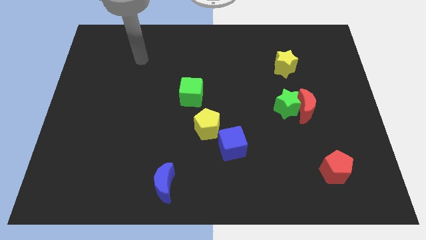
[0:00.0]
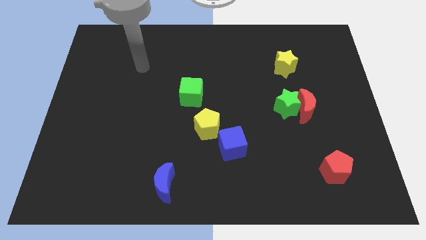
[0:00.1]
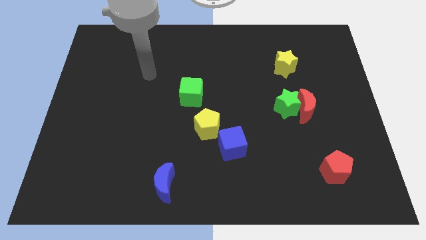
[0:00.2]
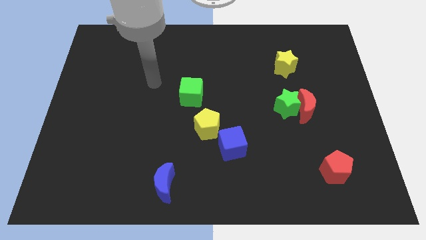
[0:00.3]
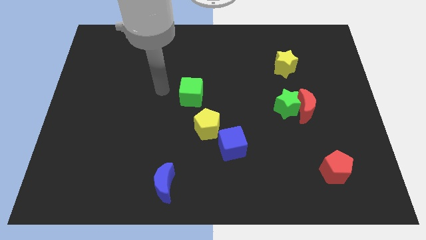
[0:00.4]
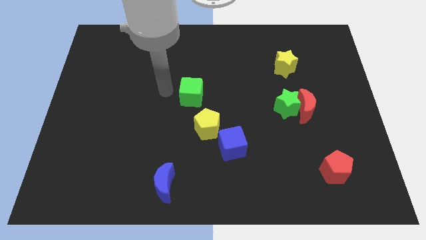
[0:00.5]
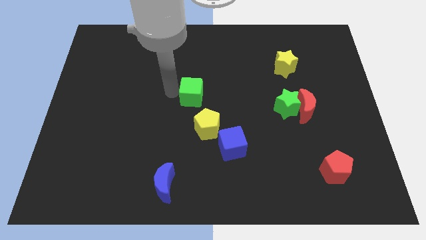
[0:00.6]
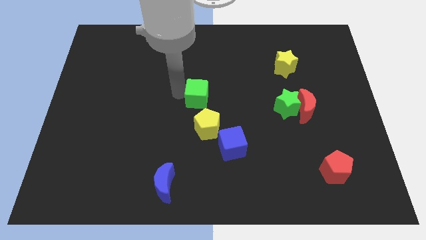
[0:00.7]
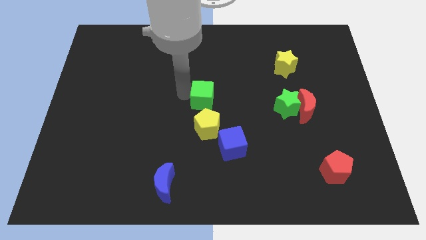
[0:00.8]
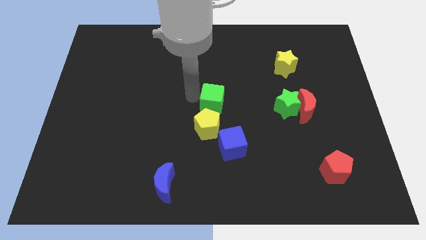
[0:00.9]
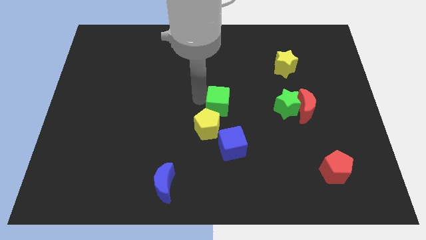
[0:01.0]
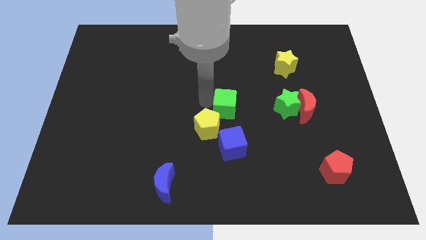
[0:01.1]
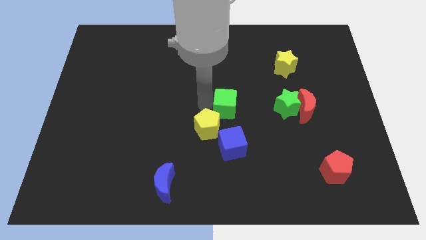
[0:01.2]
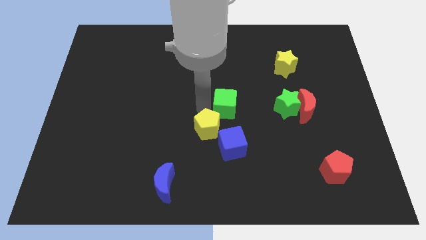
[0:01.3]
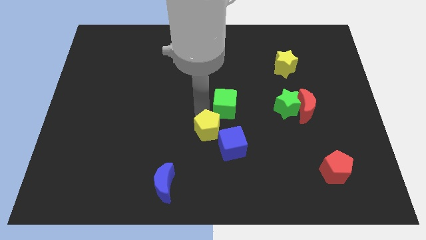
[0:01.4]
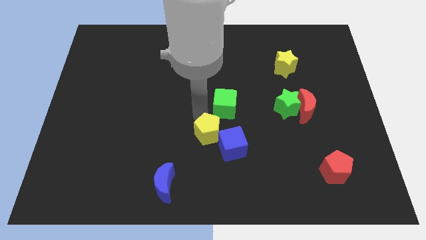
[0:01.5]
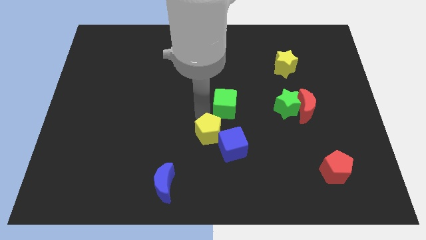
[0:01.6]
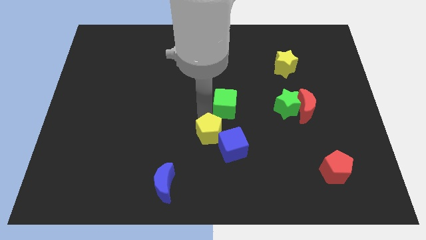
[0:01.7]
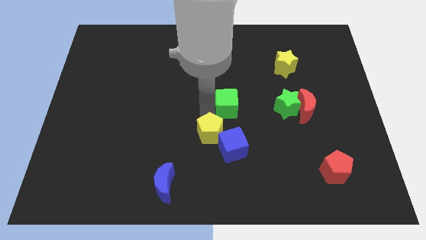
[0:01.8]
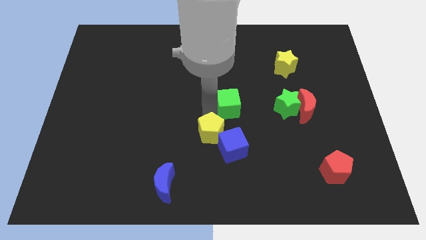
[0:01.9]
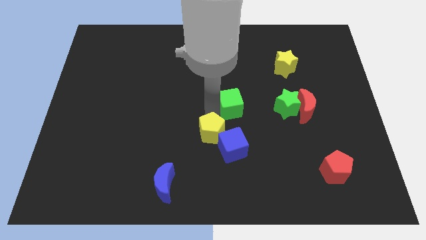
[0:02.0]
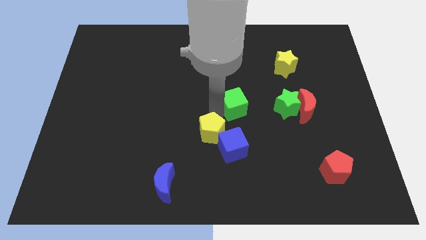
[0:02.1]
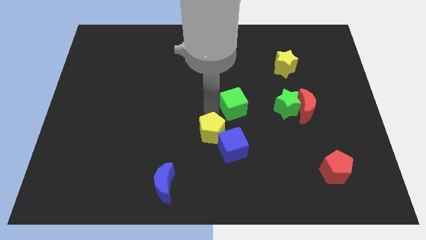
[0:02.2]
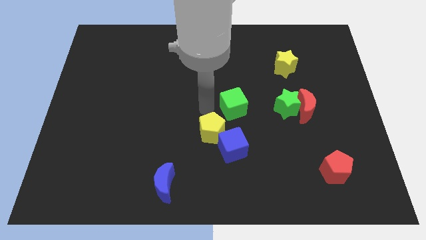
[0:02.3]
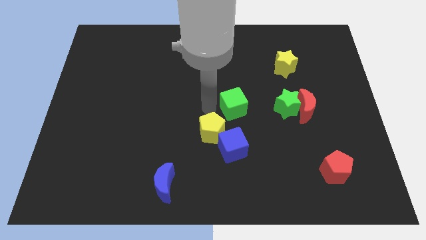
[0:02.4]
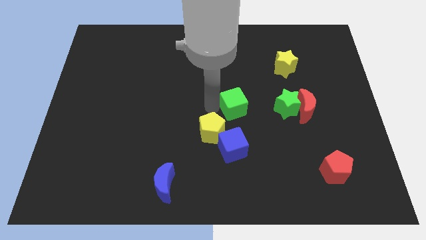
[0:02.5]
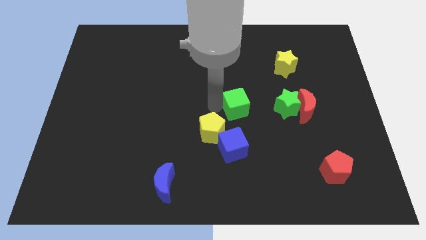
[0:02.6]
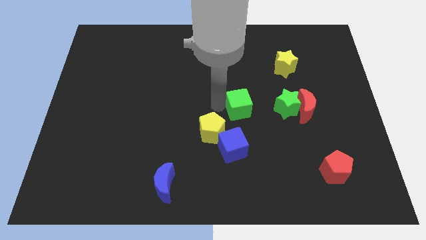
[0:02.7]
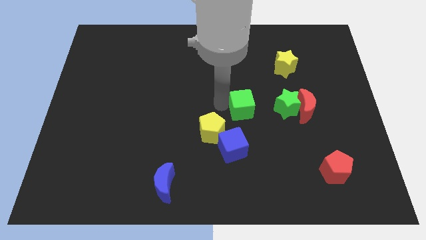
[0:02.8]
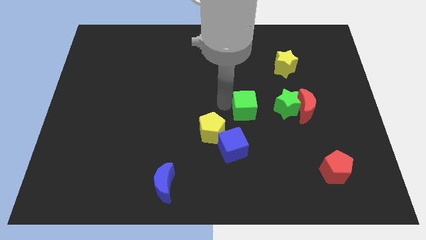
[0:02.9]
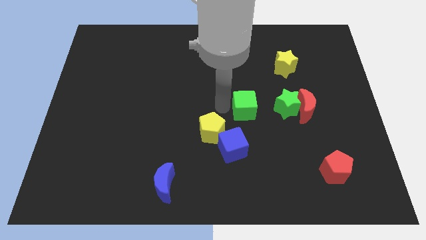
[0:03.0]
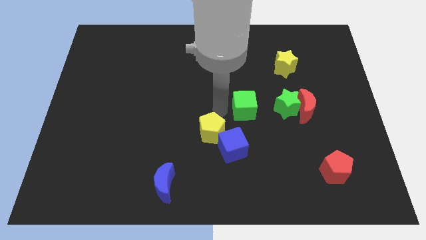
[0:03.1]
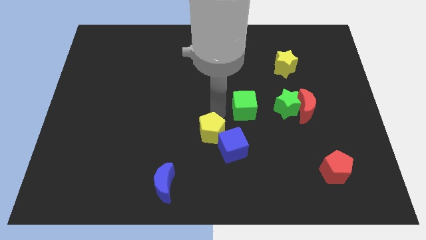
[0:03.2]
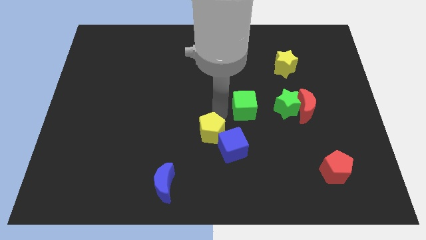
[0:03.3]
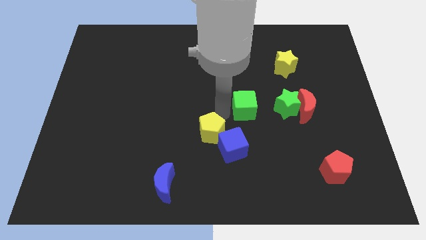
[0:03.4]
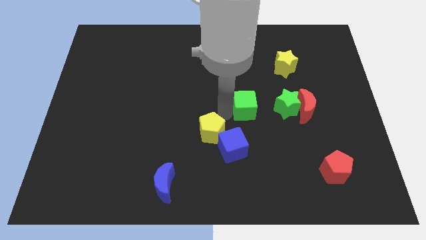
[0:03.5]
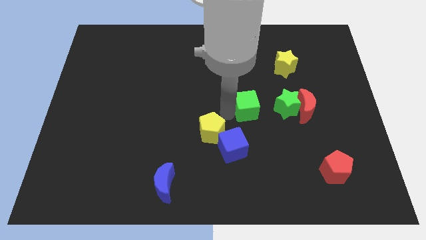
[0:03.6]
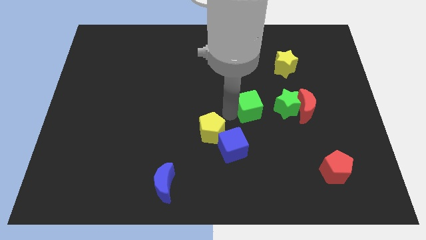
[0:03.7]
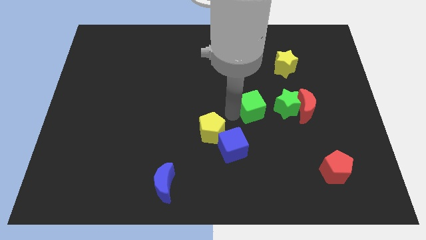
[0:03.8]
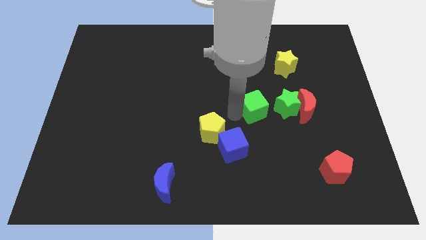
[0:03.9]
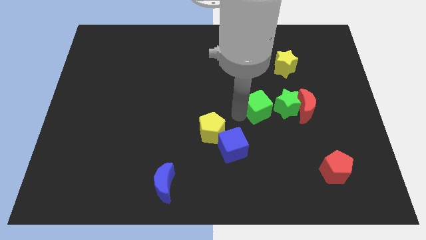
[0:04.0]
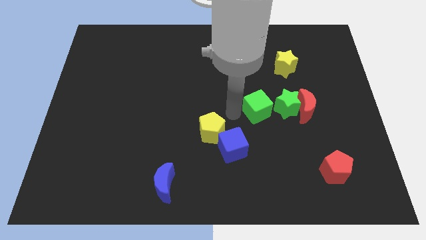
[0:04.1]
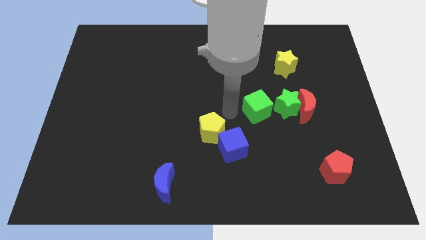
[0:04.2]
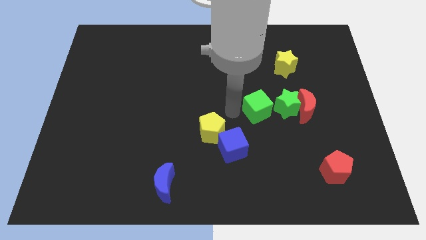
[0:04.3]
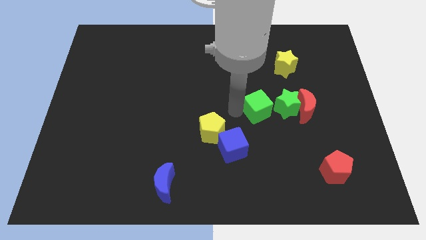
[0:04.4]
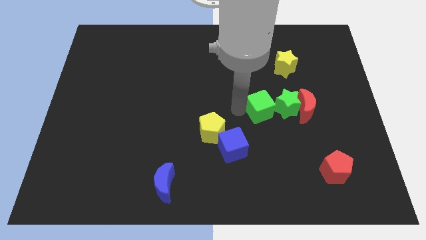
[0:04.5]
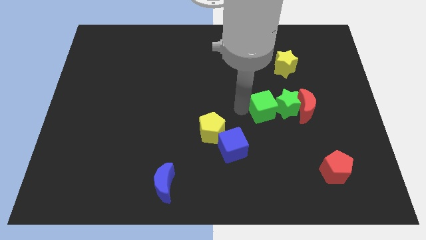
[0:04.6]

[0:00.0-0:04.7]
put the green cube towards the green star

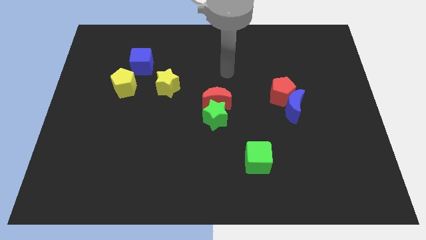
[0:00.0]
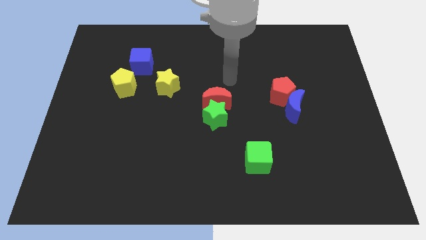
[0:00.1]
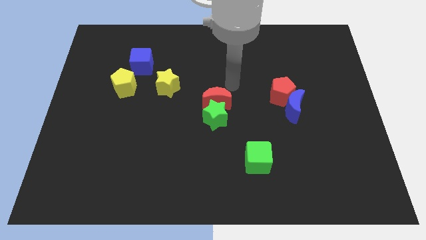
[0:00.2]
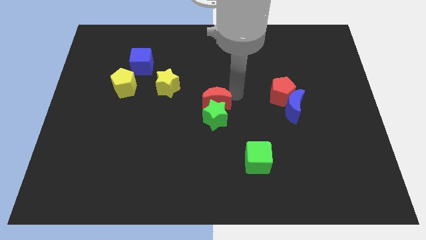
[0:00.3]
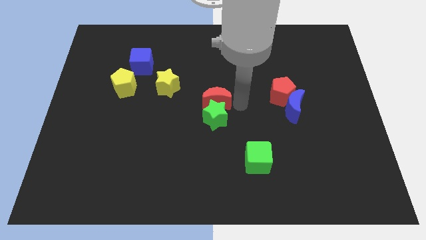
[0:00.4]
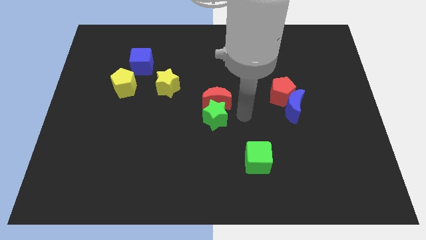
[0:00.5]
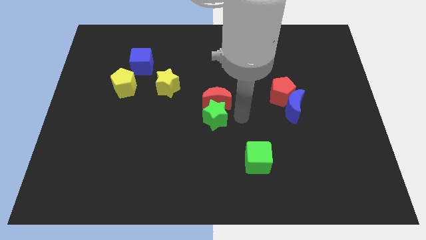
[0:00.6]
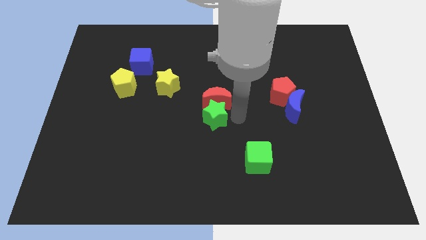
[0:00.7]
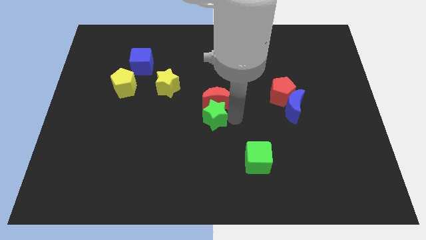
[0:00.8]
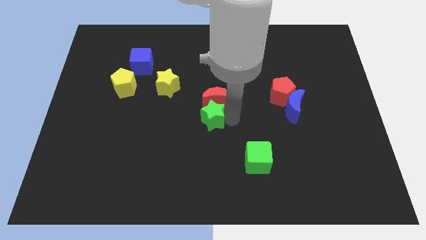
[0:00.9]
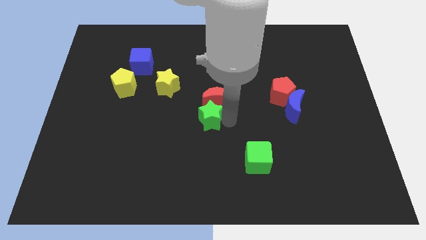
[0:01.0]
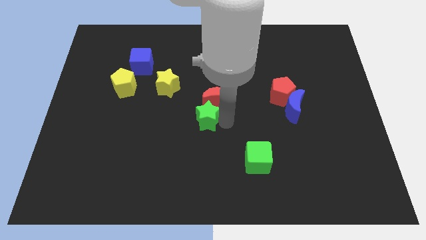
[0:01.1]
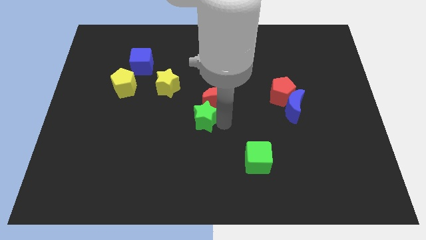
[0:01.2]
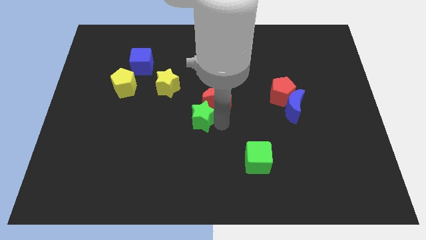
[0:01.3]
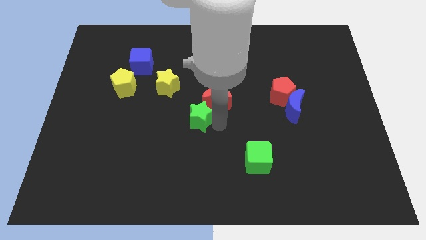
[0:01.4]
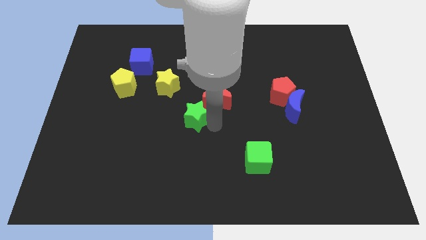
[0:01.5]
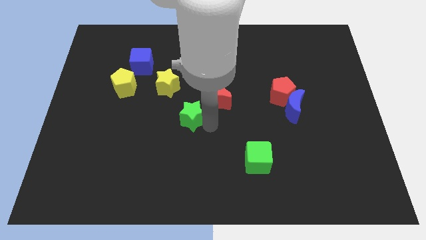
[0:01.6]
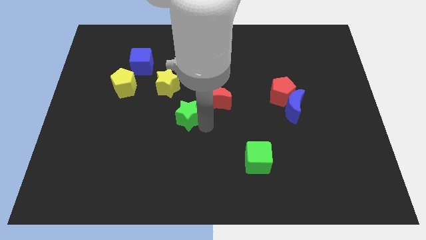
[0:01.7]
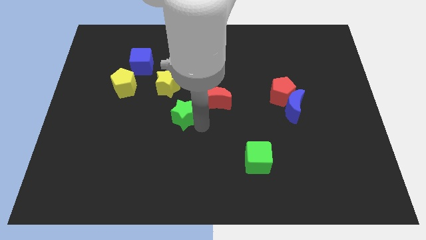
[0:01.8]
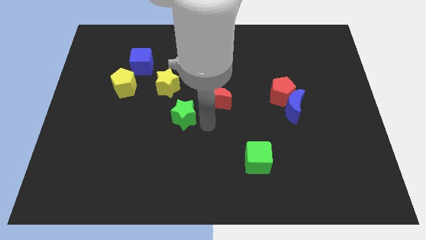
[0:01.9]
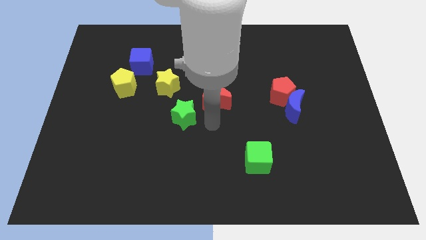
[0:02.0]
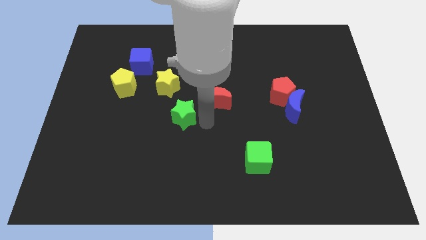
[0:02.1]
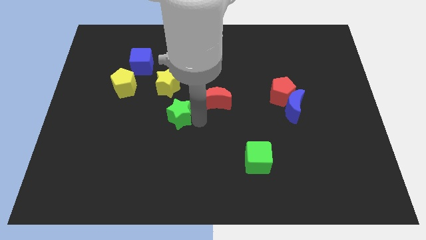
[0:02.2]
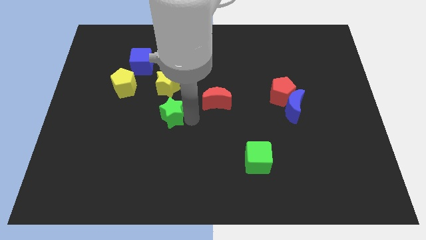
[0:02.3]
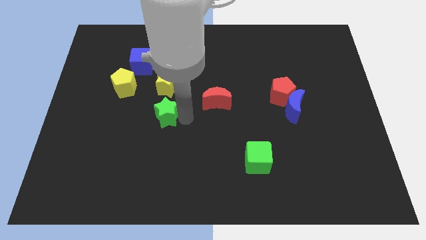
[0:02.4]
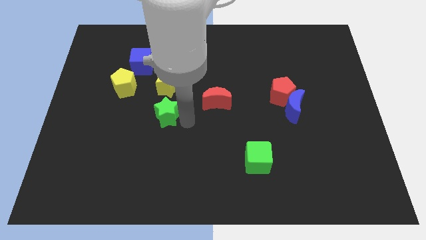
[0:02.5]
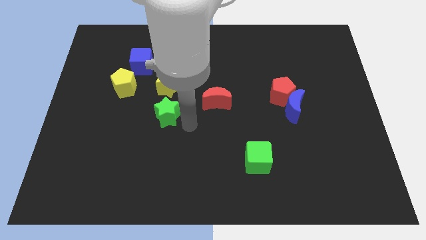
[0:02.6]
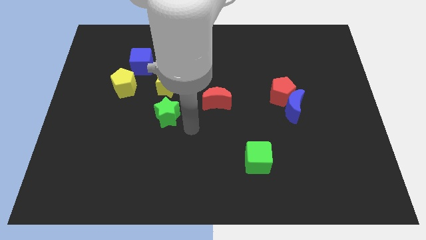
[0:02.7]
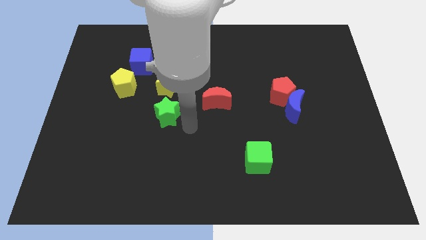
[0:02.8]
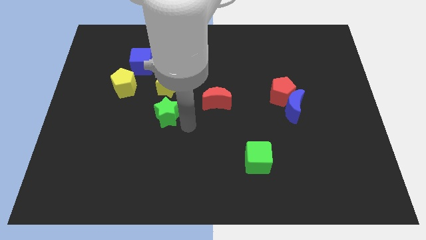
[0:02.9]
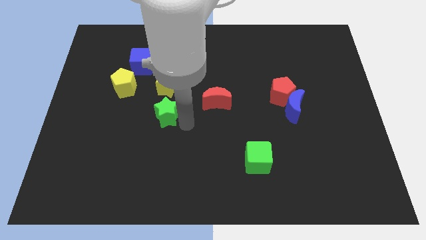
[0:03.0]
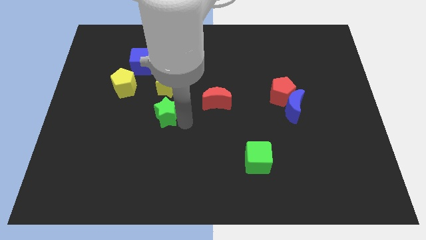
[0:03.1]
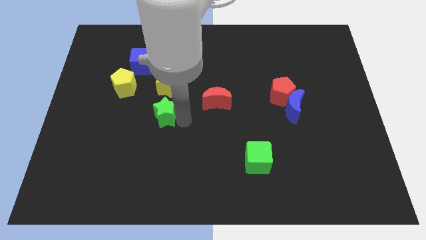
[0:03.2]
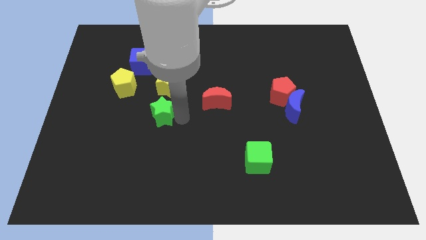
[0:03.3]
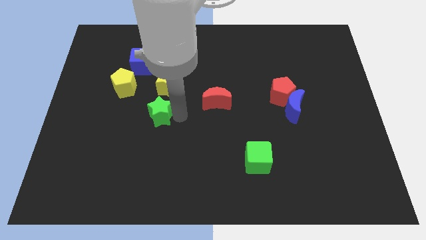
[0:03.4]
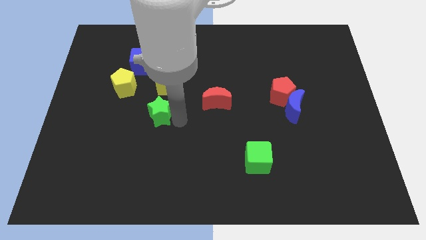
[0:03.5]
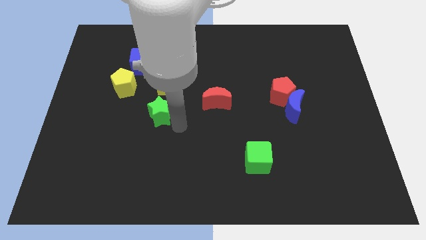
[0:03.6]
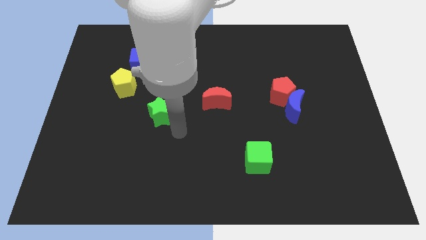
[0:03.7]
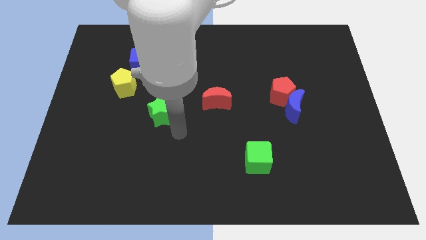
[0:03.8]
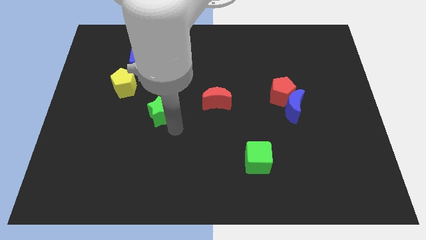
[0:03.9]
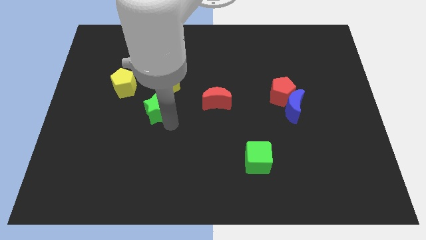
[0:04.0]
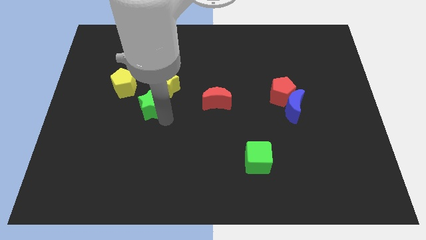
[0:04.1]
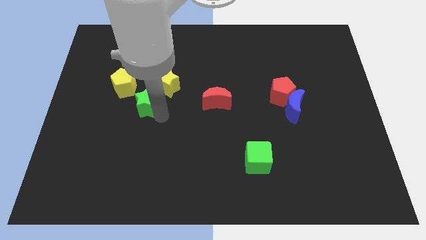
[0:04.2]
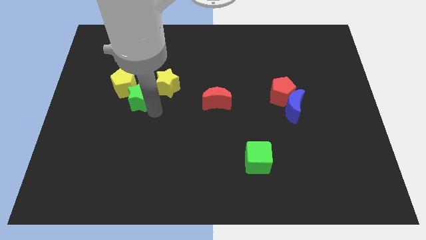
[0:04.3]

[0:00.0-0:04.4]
slide the green star towards the yellow pentagon
